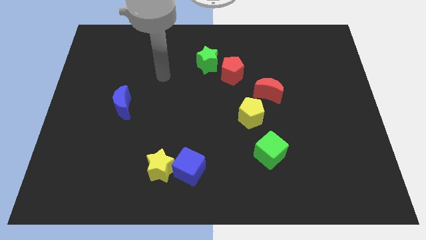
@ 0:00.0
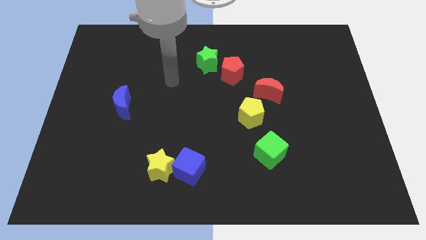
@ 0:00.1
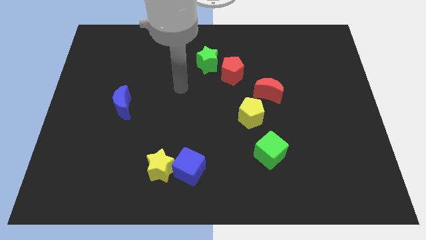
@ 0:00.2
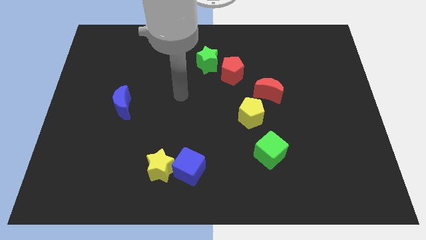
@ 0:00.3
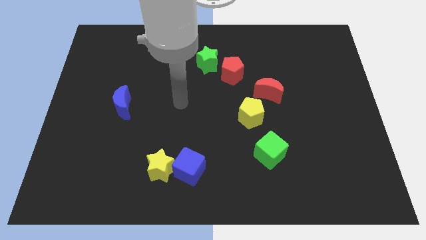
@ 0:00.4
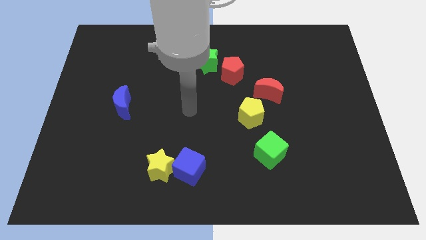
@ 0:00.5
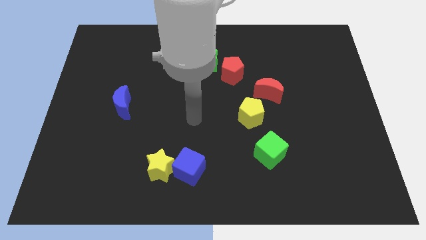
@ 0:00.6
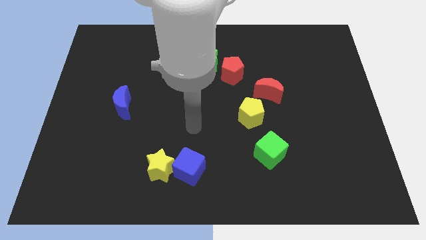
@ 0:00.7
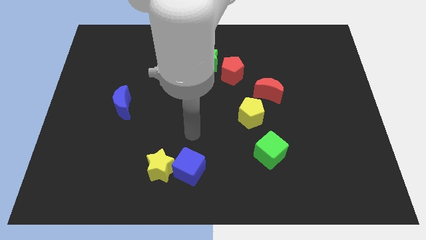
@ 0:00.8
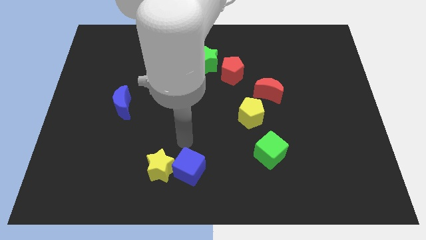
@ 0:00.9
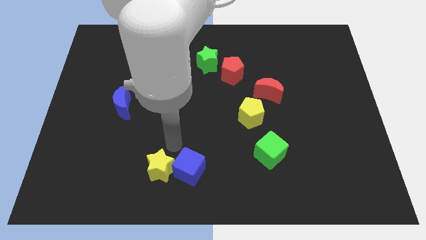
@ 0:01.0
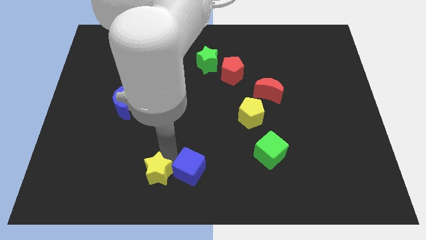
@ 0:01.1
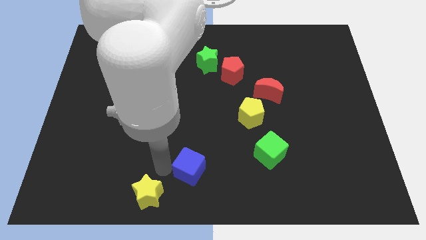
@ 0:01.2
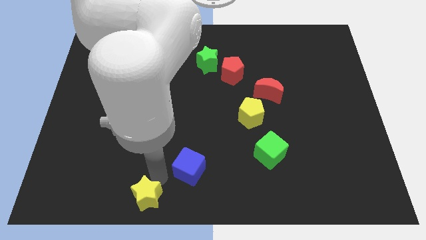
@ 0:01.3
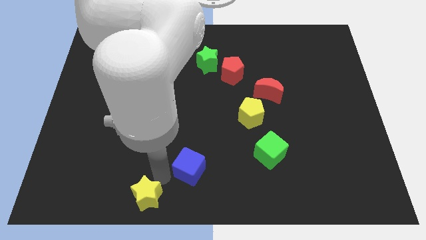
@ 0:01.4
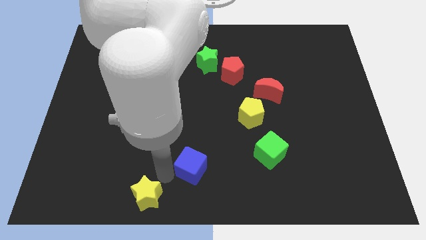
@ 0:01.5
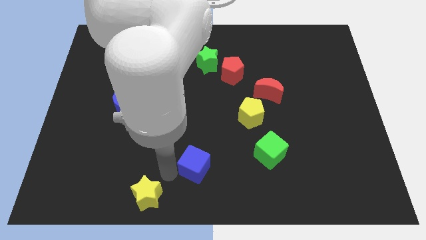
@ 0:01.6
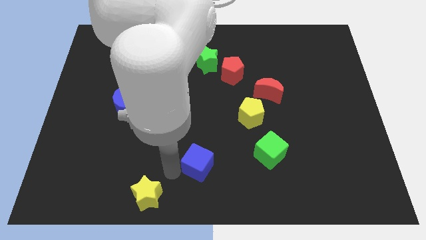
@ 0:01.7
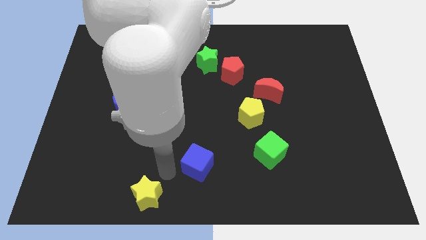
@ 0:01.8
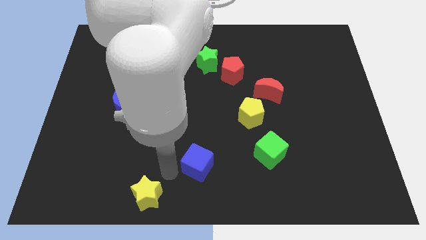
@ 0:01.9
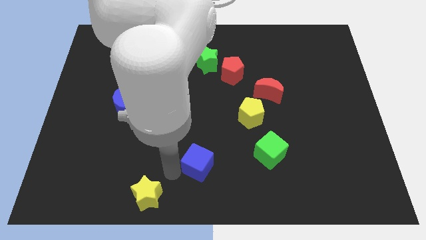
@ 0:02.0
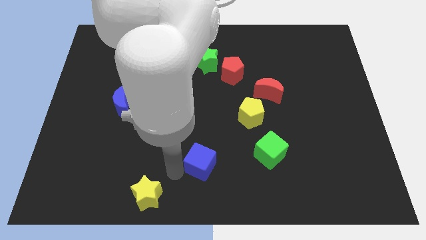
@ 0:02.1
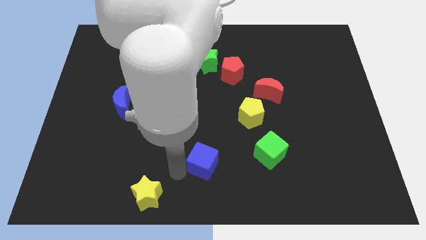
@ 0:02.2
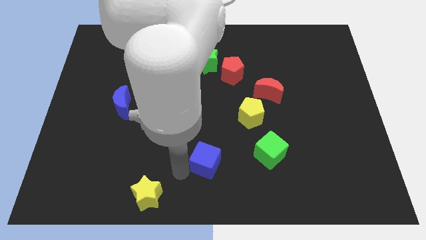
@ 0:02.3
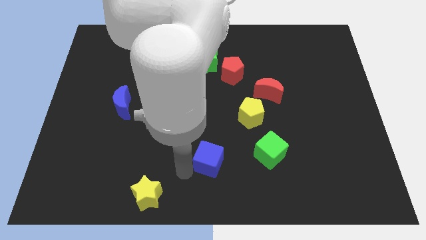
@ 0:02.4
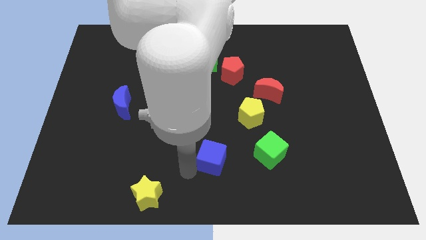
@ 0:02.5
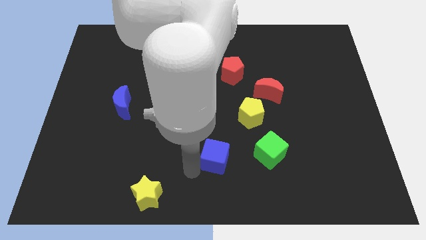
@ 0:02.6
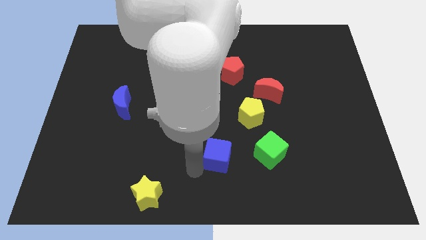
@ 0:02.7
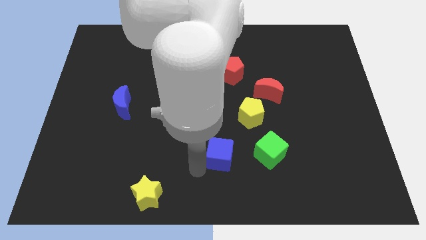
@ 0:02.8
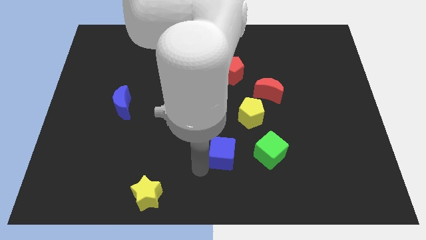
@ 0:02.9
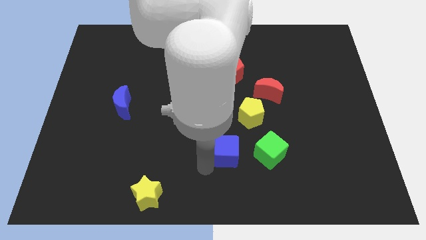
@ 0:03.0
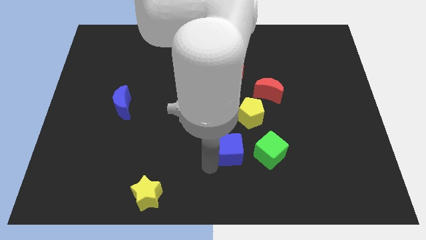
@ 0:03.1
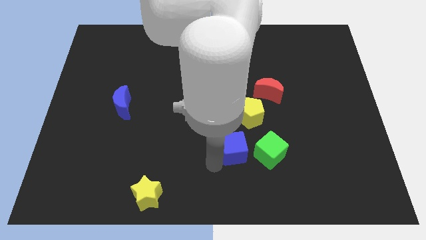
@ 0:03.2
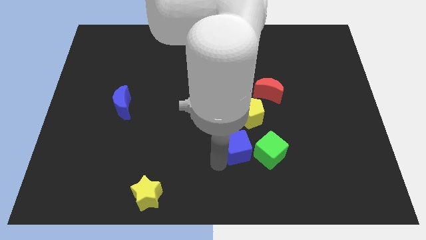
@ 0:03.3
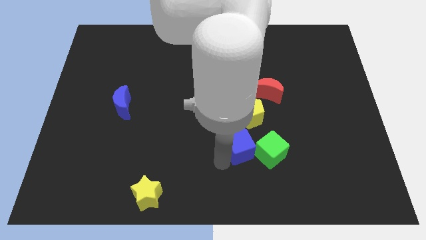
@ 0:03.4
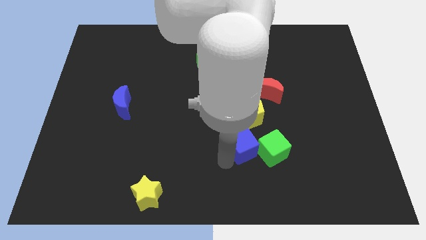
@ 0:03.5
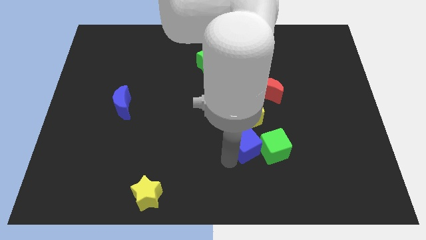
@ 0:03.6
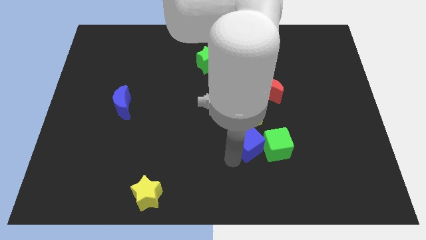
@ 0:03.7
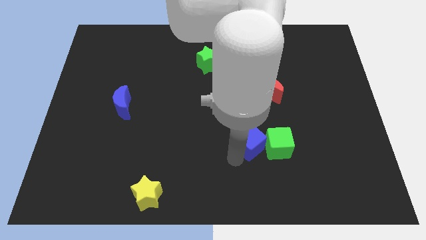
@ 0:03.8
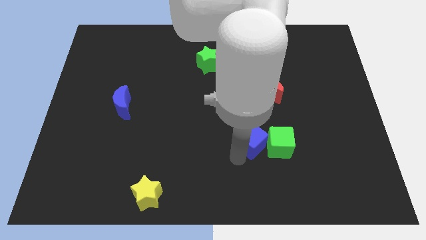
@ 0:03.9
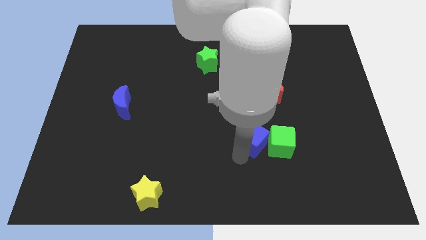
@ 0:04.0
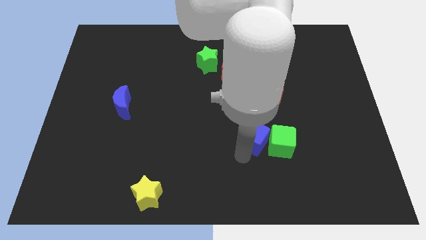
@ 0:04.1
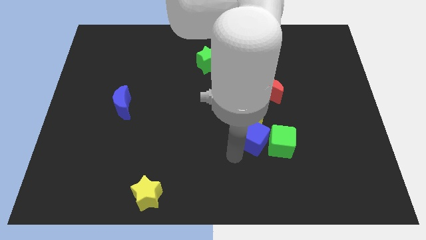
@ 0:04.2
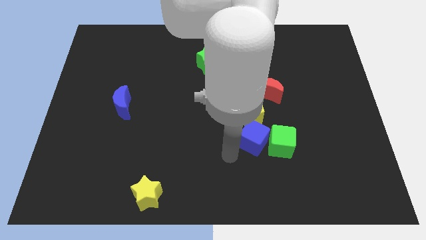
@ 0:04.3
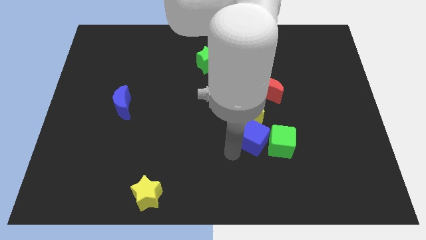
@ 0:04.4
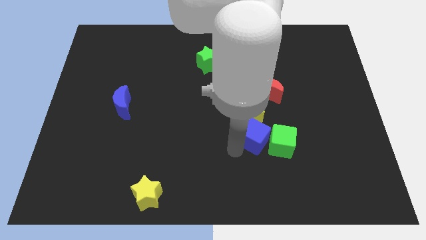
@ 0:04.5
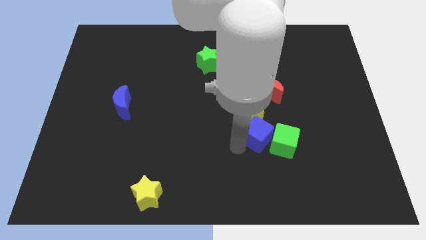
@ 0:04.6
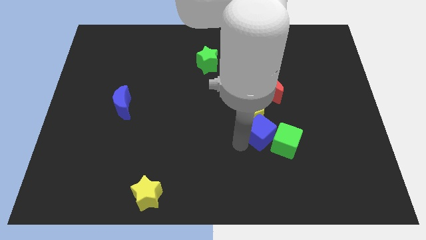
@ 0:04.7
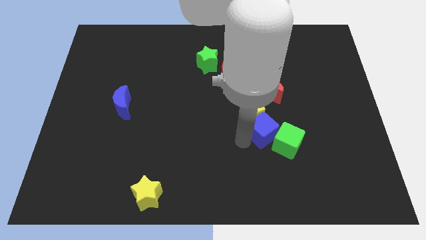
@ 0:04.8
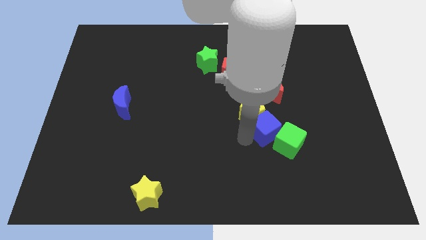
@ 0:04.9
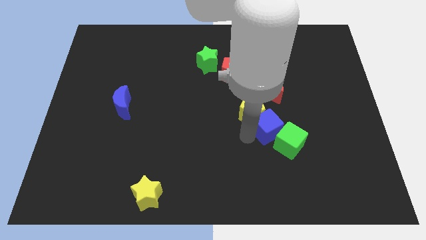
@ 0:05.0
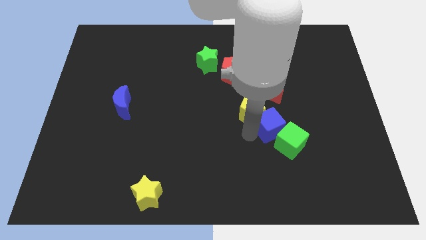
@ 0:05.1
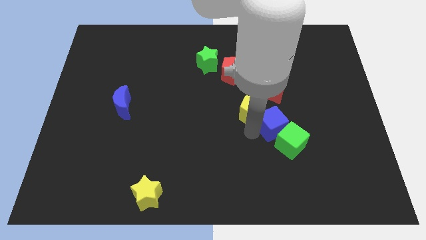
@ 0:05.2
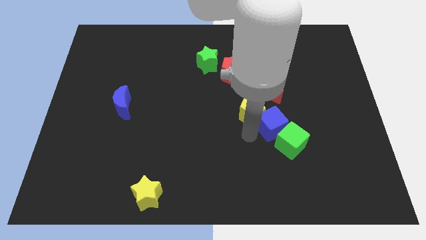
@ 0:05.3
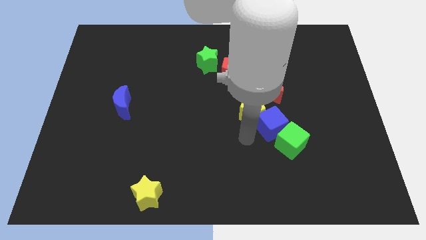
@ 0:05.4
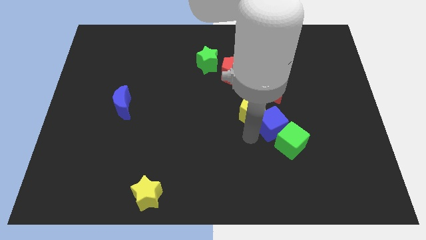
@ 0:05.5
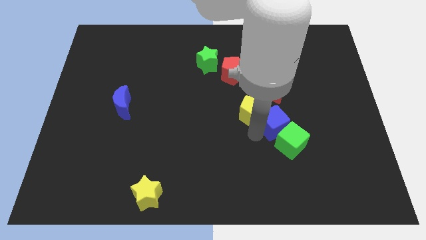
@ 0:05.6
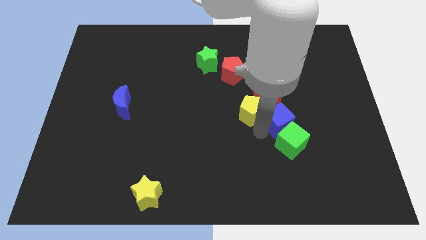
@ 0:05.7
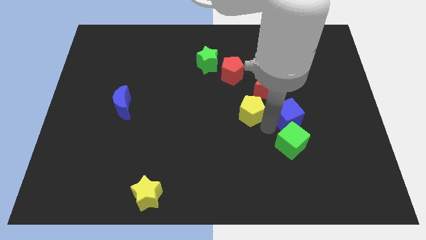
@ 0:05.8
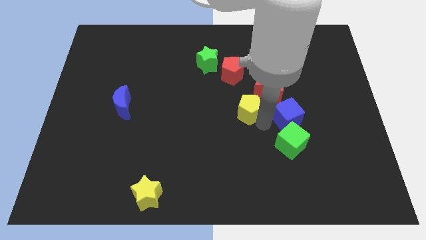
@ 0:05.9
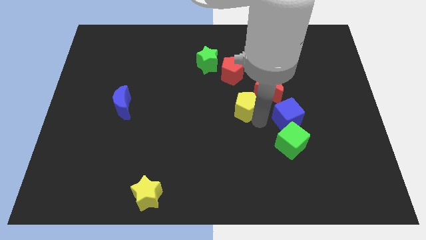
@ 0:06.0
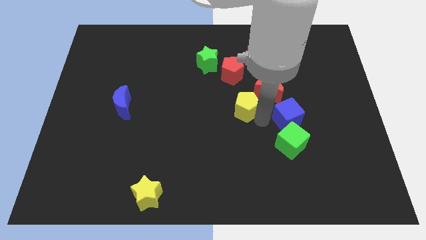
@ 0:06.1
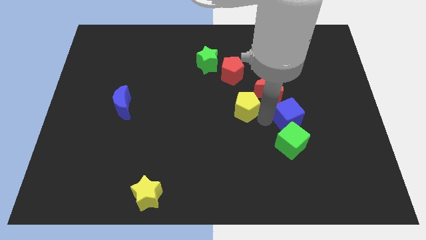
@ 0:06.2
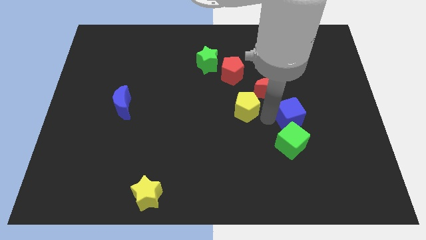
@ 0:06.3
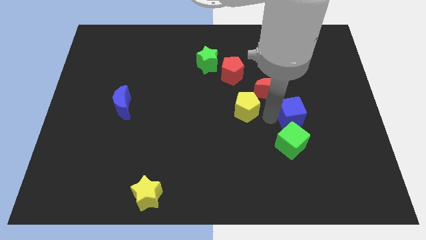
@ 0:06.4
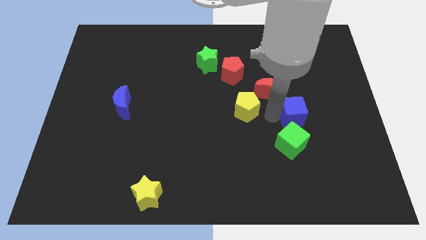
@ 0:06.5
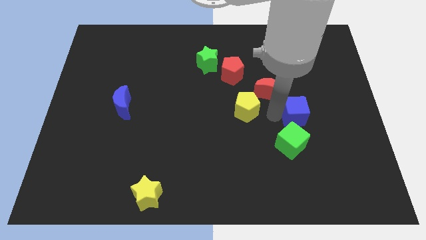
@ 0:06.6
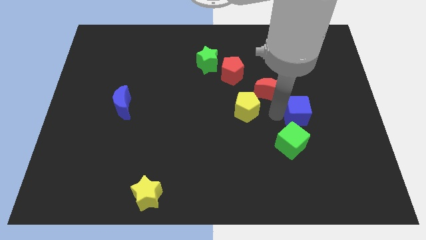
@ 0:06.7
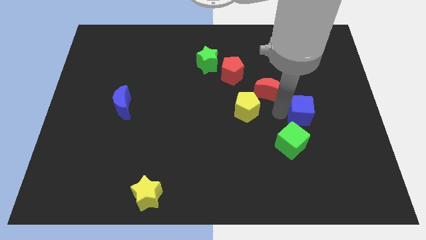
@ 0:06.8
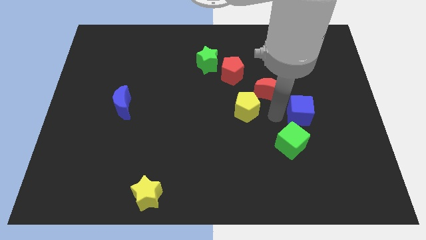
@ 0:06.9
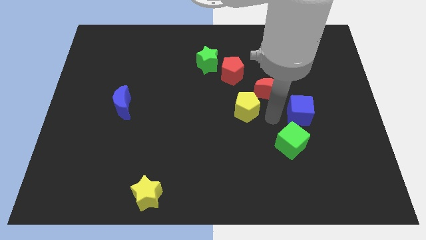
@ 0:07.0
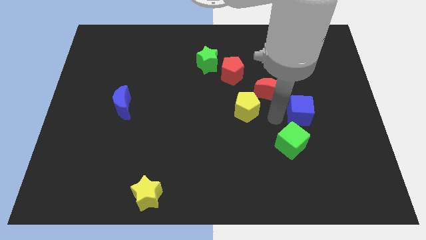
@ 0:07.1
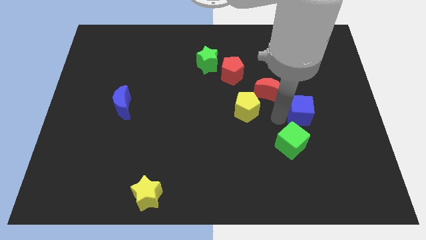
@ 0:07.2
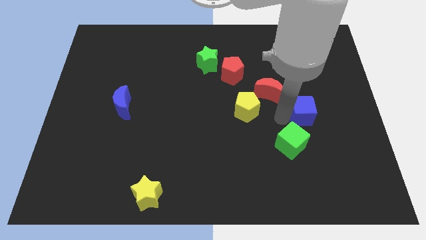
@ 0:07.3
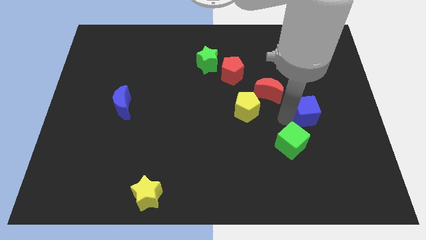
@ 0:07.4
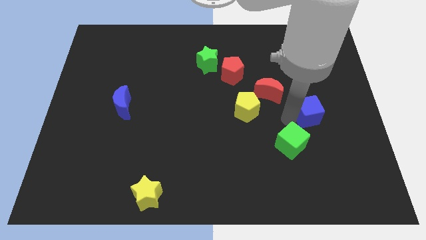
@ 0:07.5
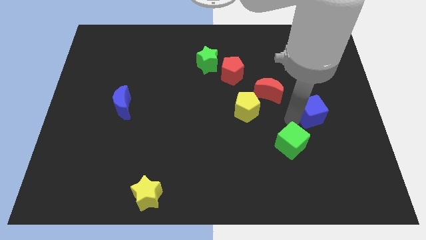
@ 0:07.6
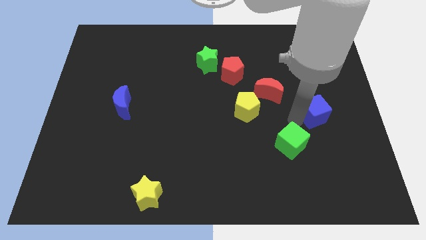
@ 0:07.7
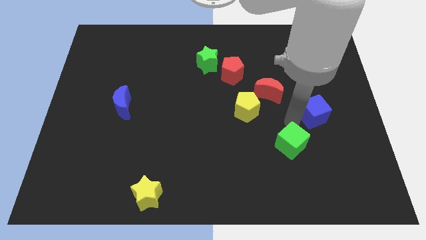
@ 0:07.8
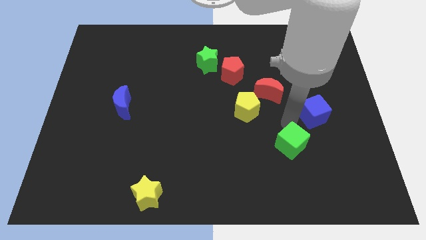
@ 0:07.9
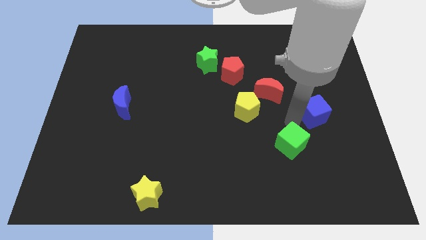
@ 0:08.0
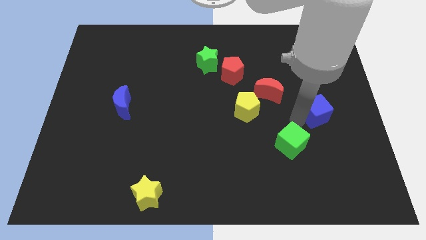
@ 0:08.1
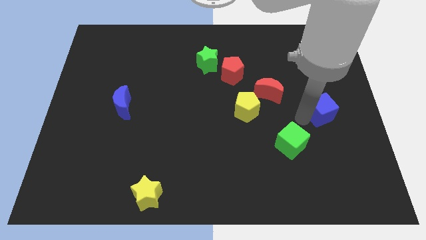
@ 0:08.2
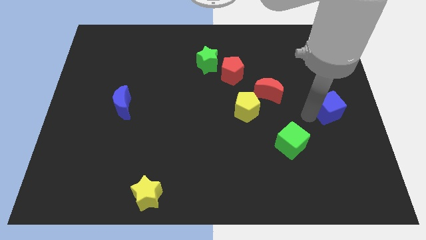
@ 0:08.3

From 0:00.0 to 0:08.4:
move the blue cube to the right side of the board
